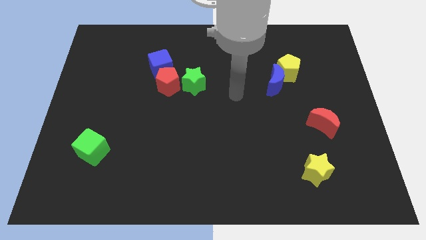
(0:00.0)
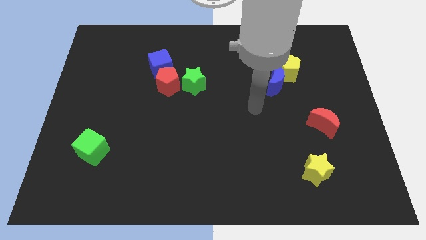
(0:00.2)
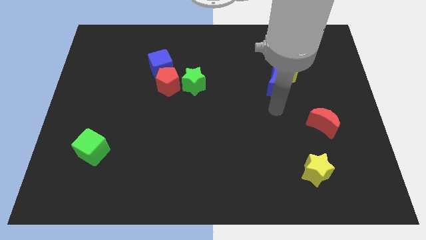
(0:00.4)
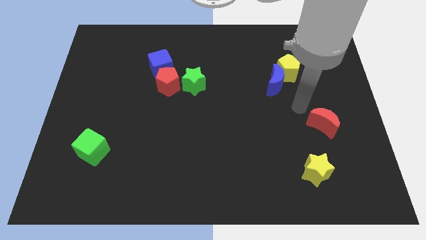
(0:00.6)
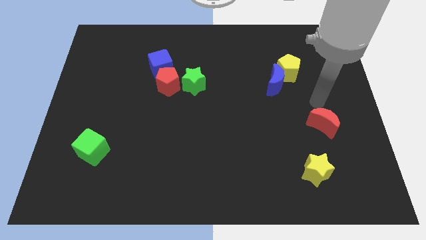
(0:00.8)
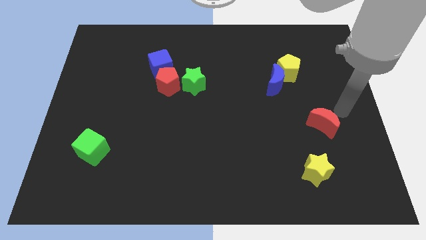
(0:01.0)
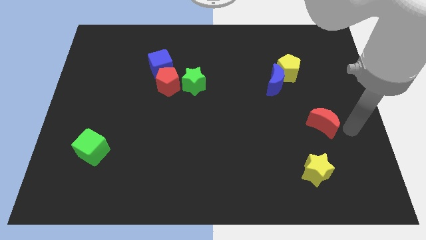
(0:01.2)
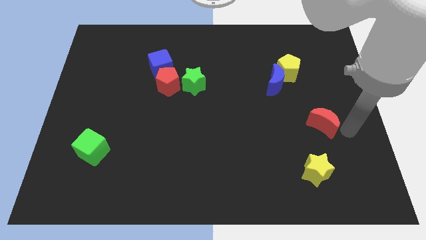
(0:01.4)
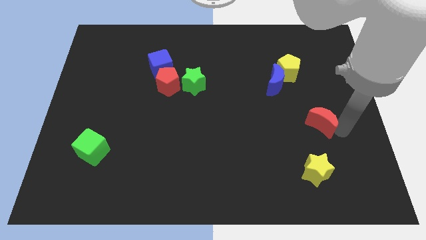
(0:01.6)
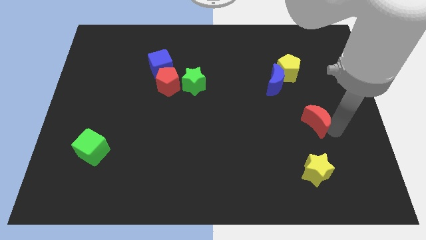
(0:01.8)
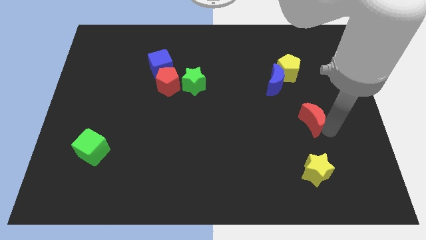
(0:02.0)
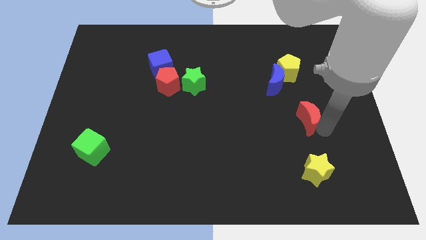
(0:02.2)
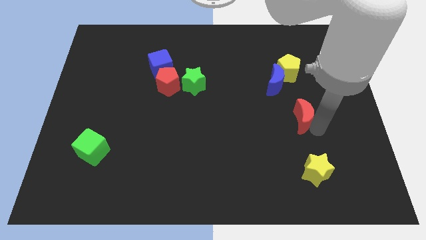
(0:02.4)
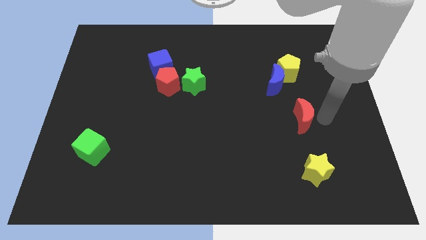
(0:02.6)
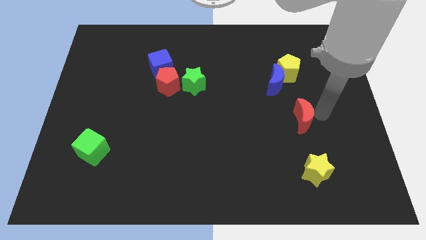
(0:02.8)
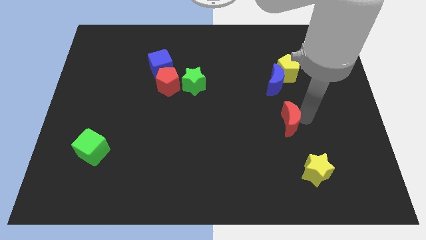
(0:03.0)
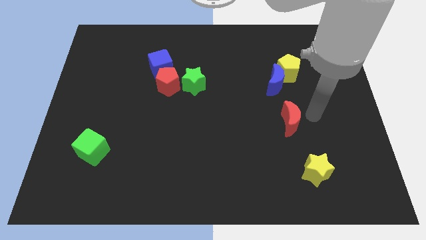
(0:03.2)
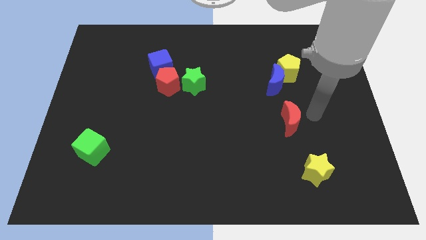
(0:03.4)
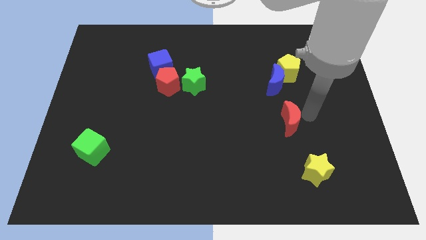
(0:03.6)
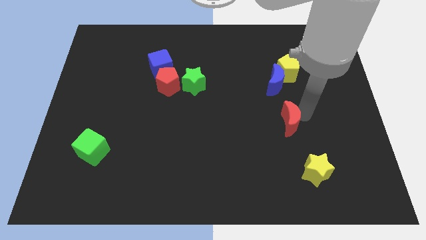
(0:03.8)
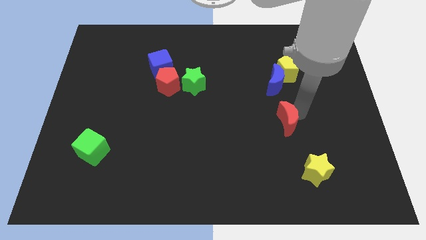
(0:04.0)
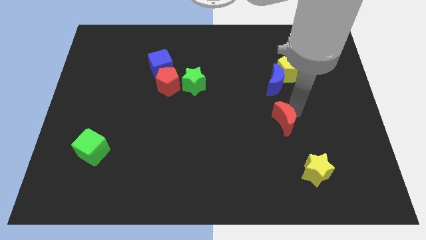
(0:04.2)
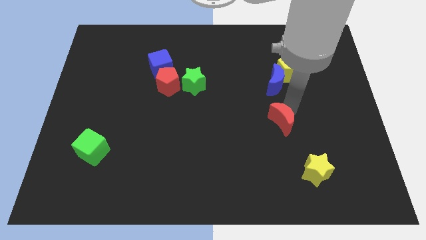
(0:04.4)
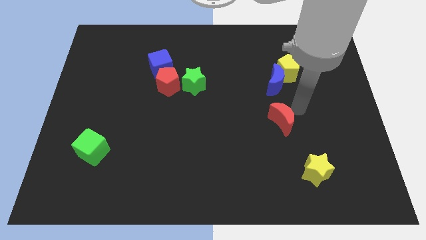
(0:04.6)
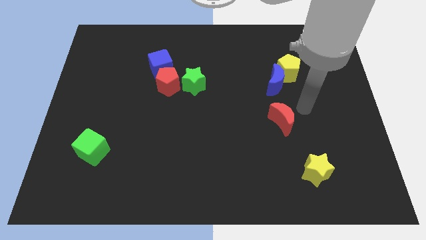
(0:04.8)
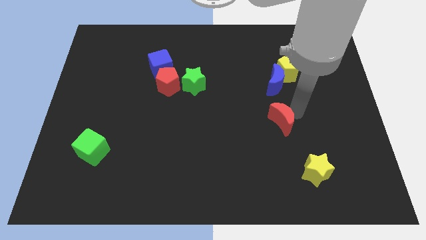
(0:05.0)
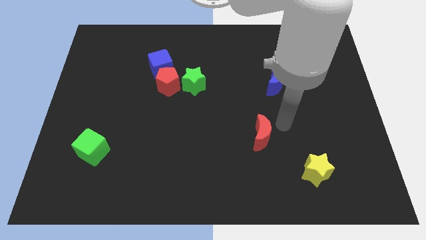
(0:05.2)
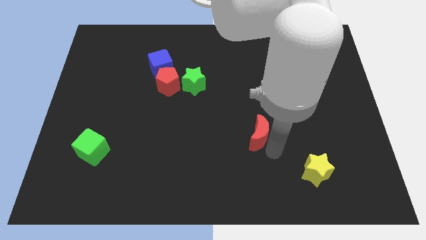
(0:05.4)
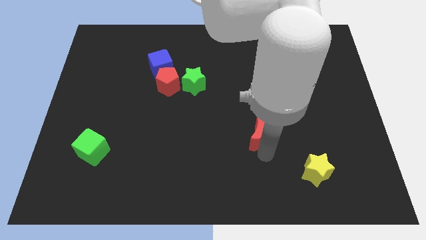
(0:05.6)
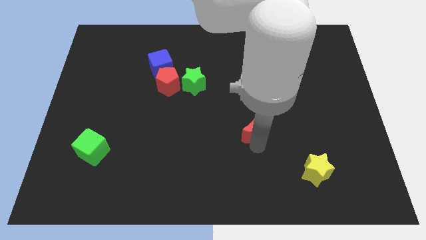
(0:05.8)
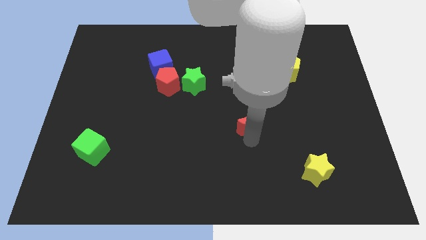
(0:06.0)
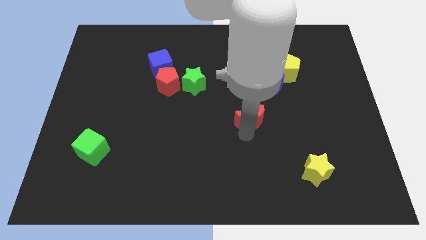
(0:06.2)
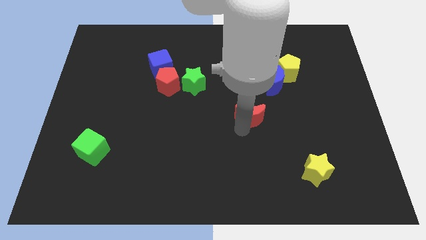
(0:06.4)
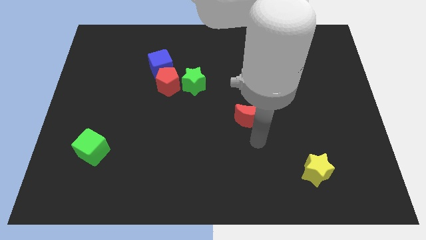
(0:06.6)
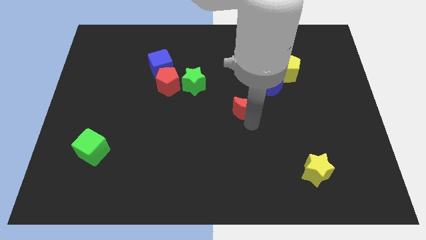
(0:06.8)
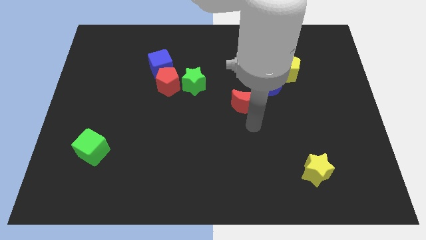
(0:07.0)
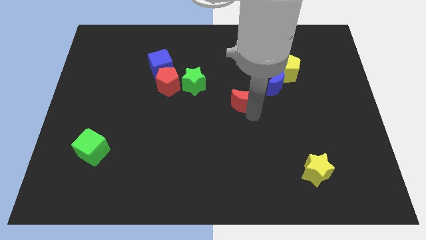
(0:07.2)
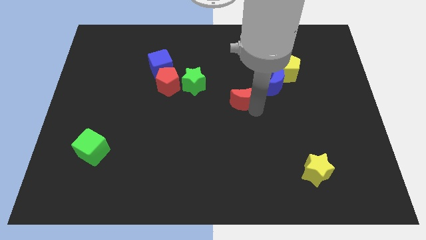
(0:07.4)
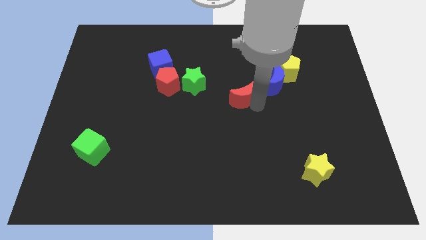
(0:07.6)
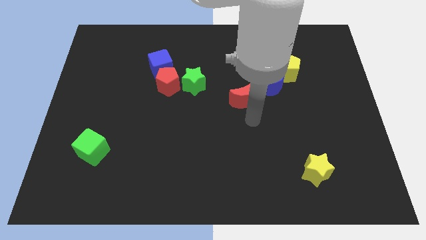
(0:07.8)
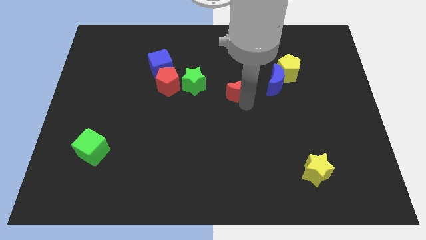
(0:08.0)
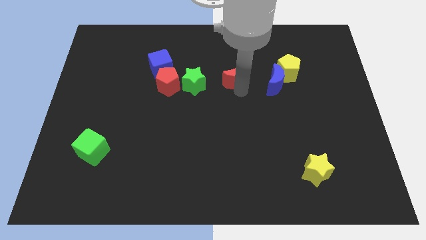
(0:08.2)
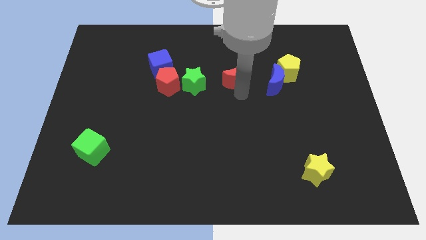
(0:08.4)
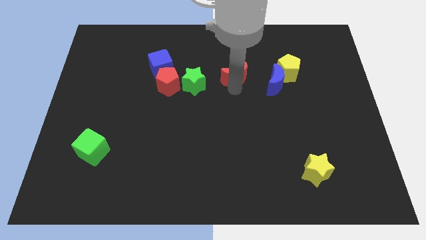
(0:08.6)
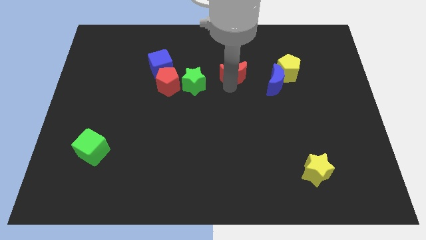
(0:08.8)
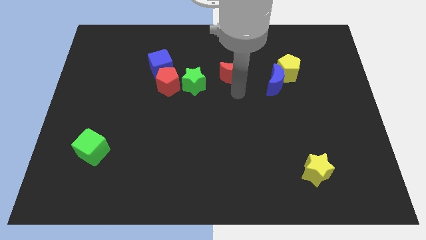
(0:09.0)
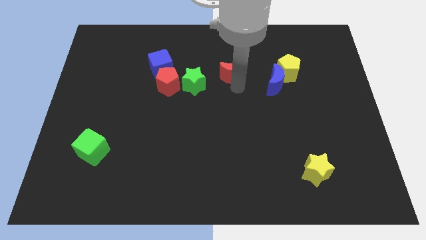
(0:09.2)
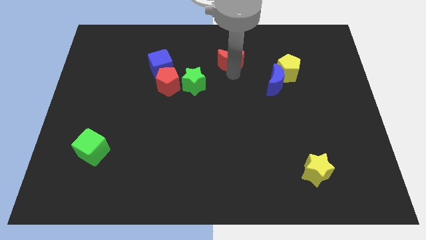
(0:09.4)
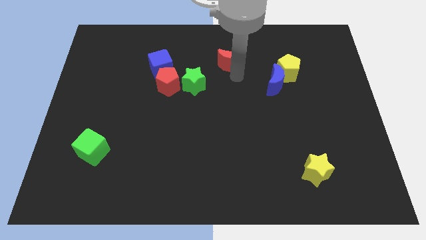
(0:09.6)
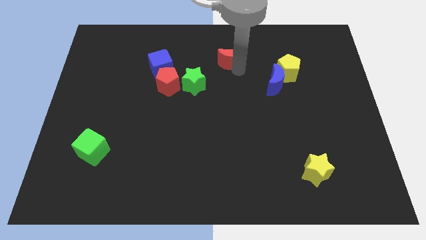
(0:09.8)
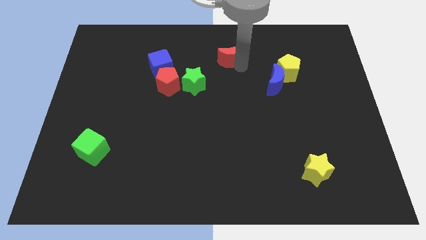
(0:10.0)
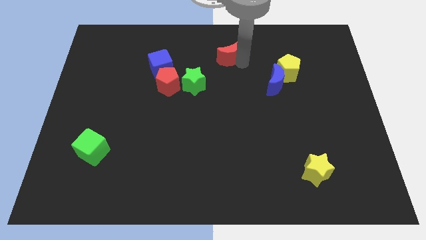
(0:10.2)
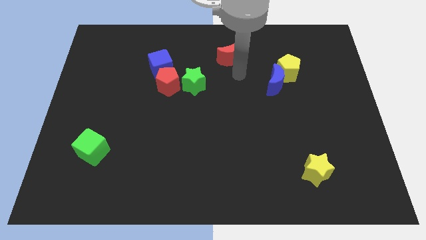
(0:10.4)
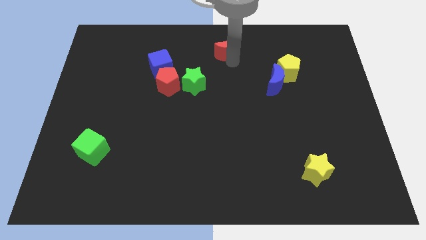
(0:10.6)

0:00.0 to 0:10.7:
push the red moon to the towards your base

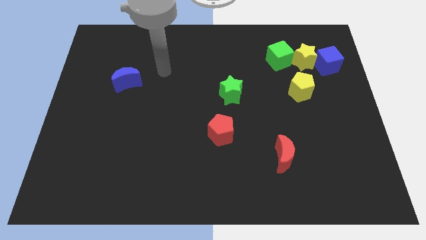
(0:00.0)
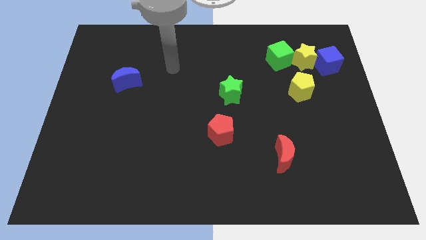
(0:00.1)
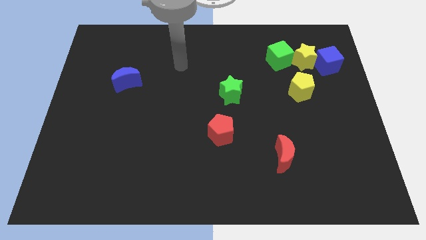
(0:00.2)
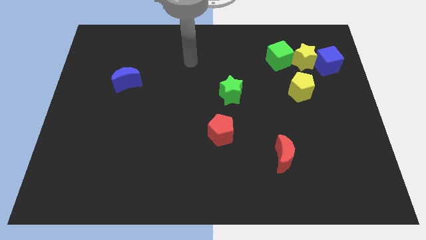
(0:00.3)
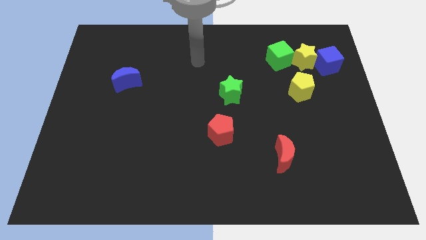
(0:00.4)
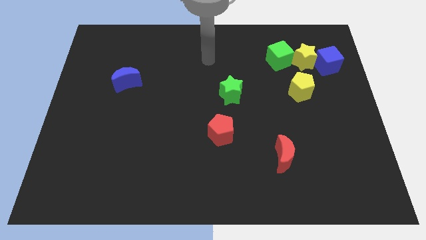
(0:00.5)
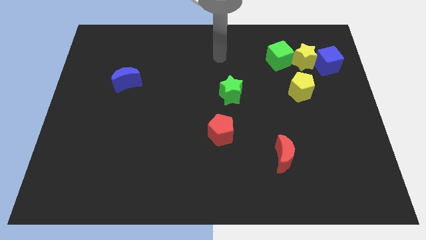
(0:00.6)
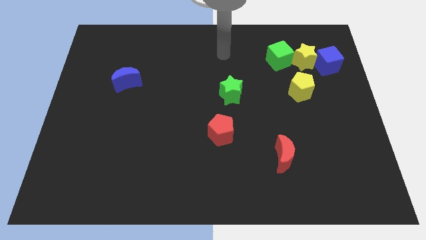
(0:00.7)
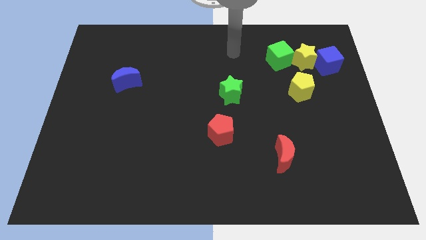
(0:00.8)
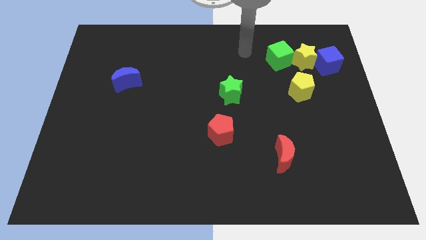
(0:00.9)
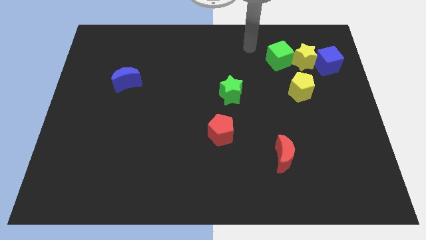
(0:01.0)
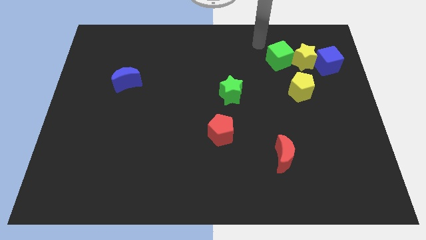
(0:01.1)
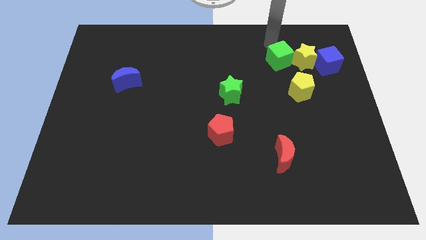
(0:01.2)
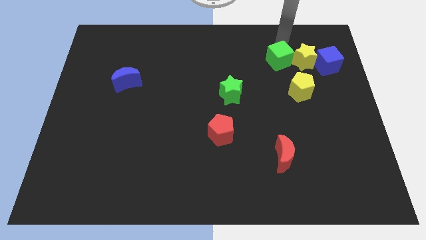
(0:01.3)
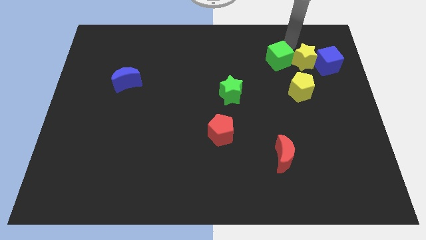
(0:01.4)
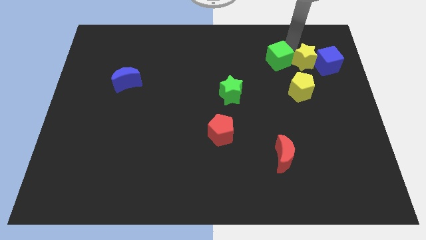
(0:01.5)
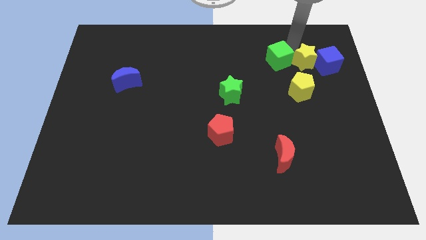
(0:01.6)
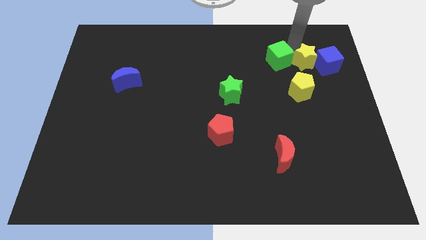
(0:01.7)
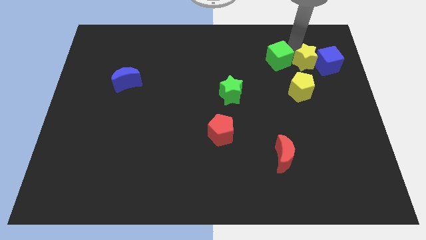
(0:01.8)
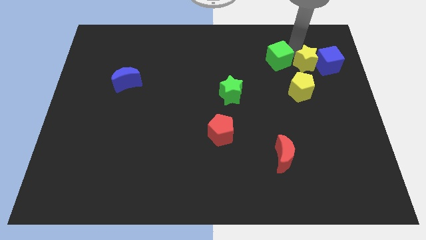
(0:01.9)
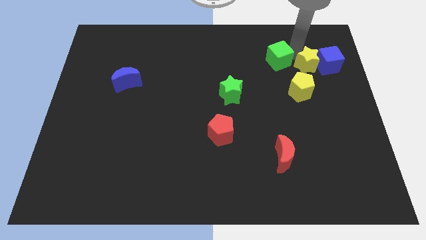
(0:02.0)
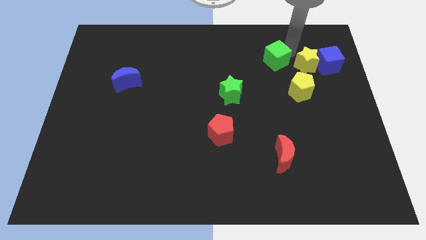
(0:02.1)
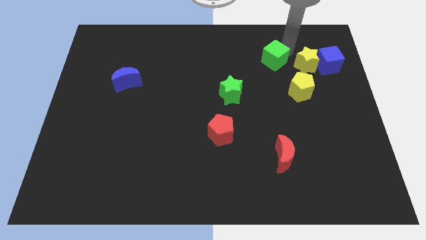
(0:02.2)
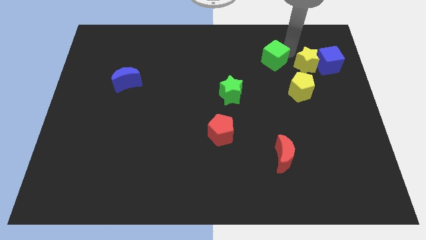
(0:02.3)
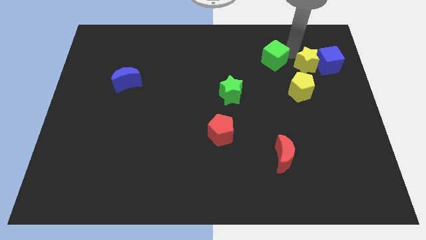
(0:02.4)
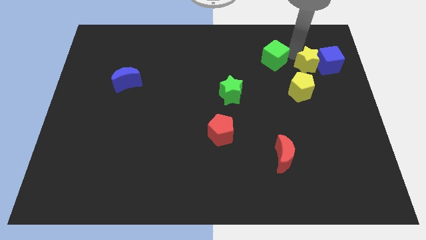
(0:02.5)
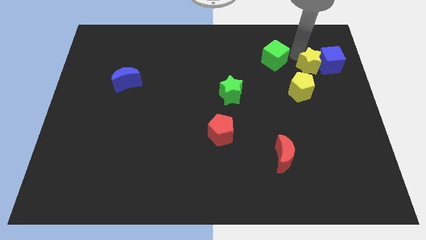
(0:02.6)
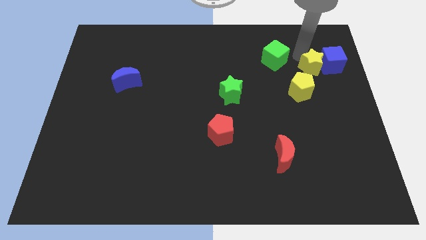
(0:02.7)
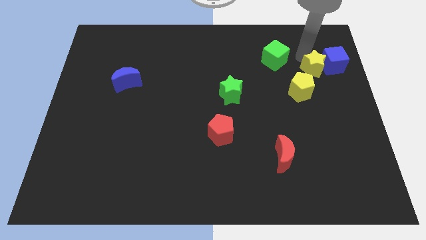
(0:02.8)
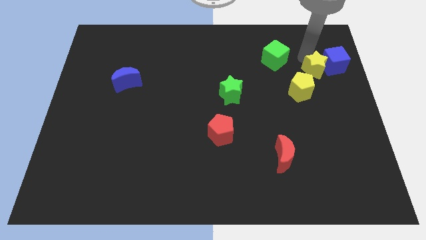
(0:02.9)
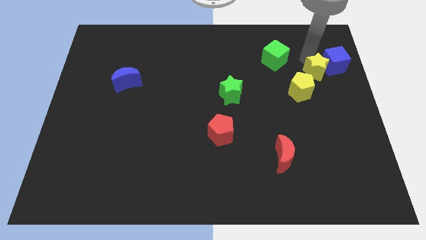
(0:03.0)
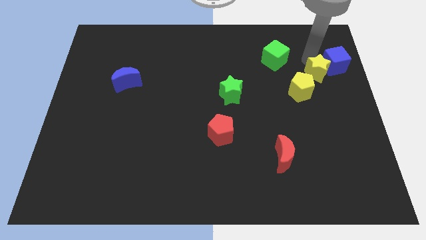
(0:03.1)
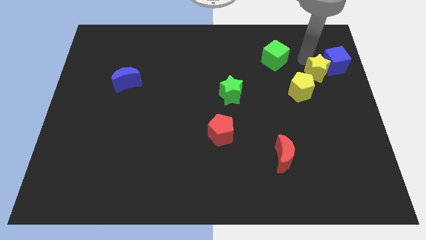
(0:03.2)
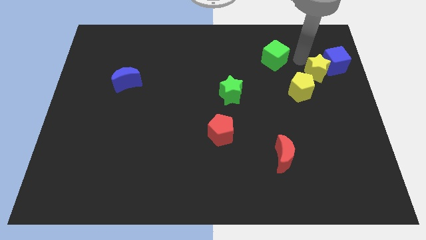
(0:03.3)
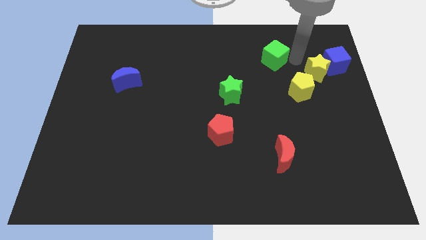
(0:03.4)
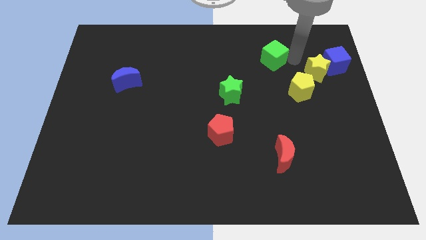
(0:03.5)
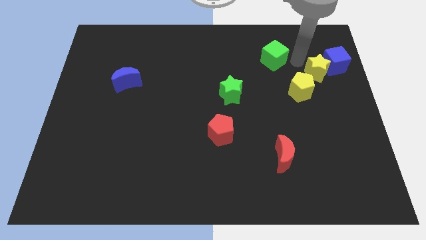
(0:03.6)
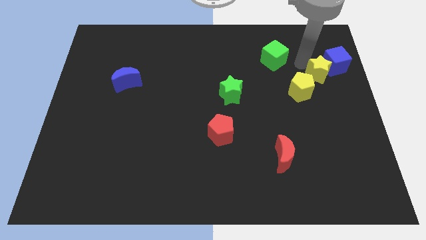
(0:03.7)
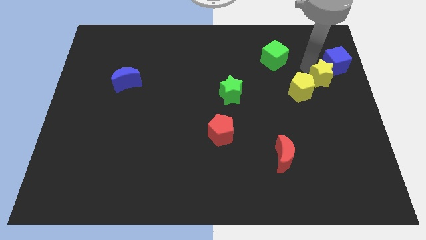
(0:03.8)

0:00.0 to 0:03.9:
push the yellow star to the right side
